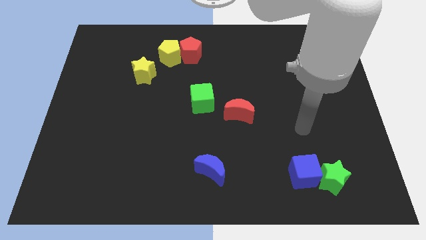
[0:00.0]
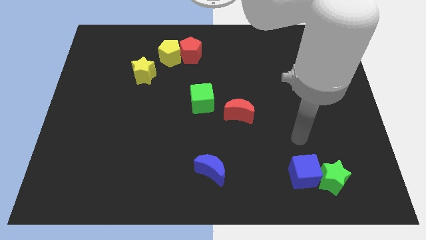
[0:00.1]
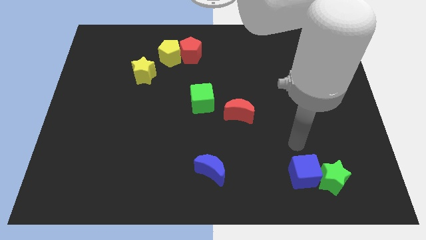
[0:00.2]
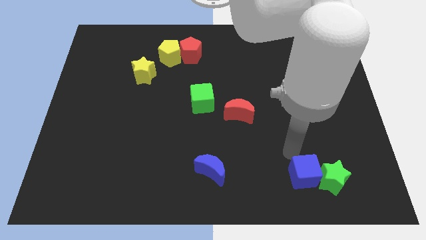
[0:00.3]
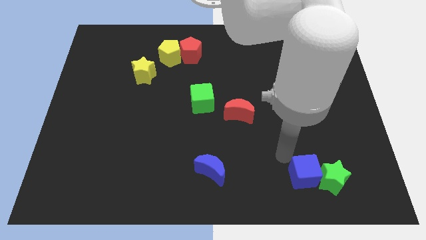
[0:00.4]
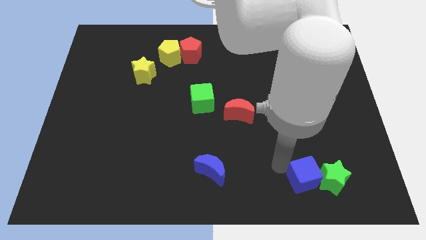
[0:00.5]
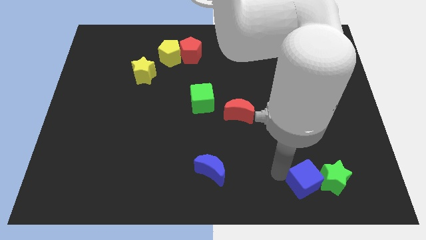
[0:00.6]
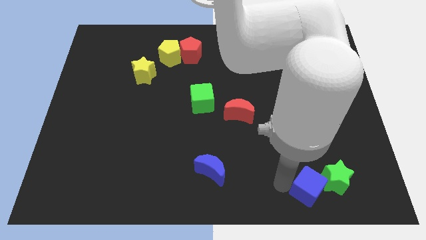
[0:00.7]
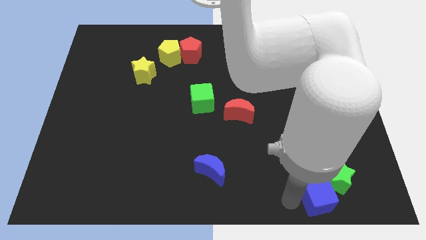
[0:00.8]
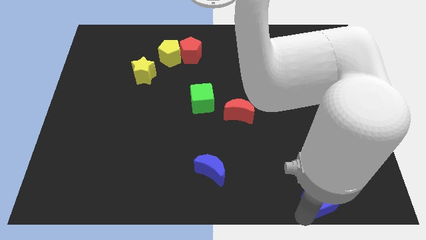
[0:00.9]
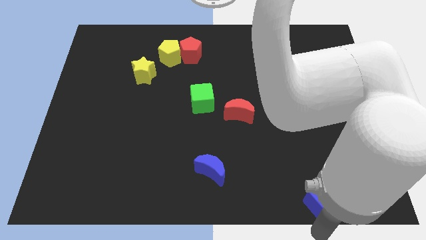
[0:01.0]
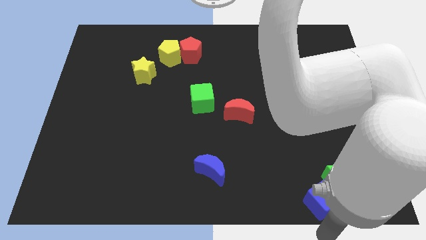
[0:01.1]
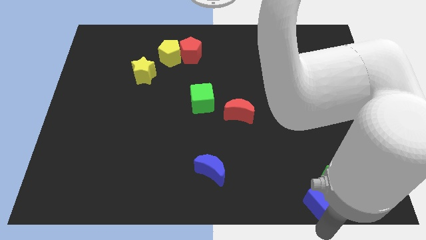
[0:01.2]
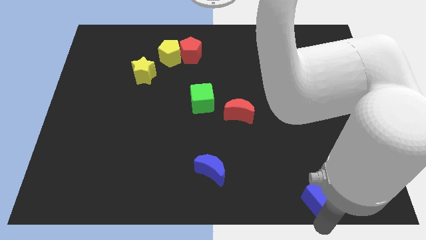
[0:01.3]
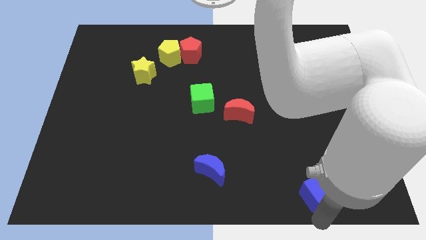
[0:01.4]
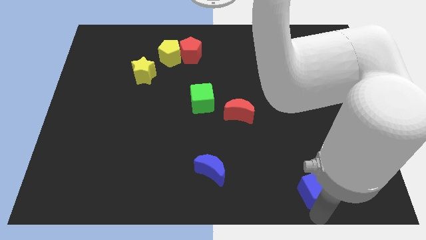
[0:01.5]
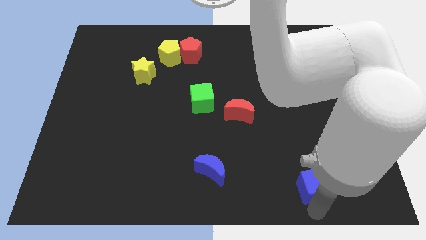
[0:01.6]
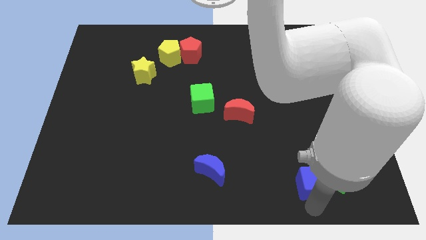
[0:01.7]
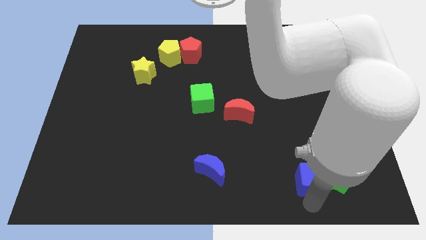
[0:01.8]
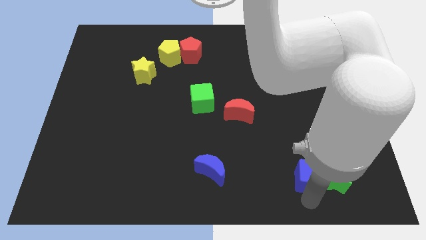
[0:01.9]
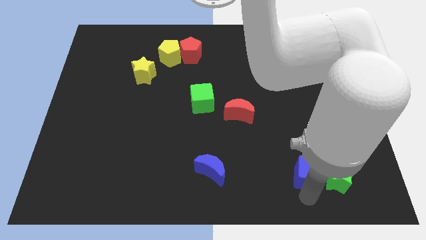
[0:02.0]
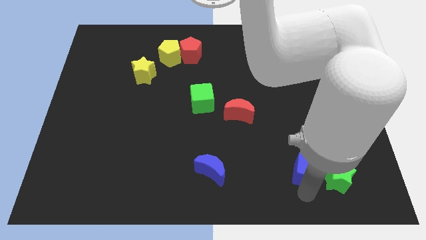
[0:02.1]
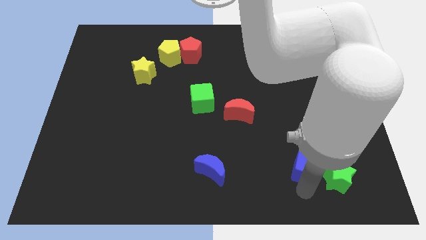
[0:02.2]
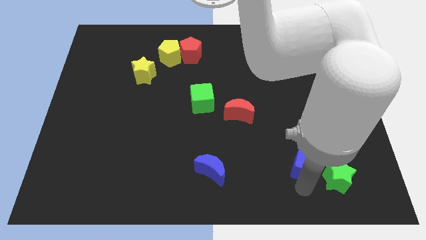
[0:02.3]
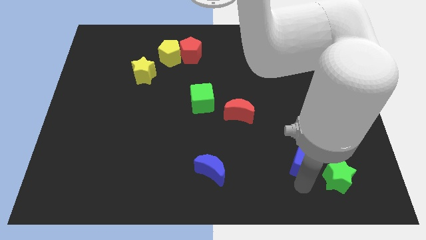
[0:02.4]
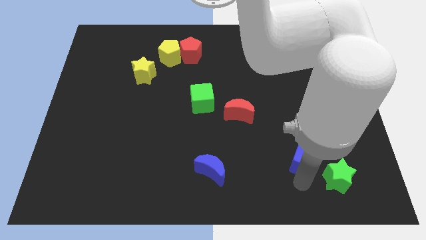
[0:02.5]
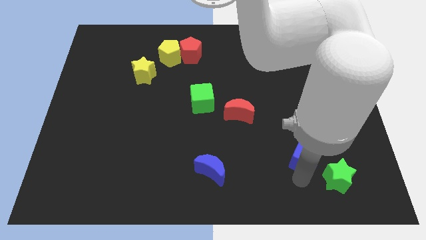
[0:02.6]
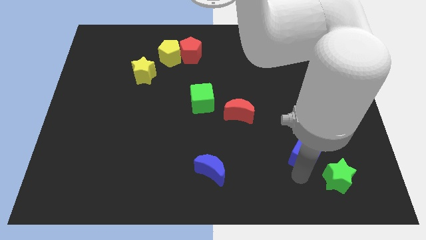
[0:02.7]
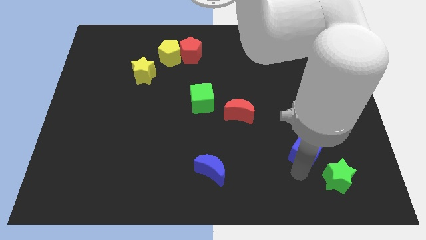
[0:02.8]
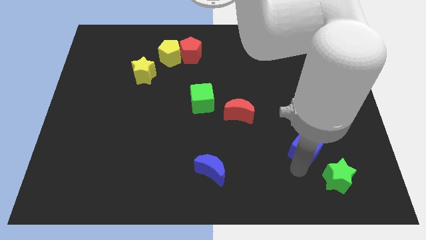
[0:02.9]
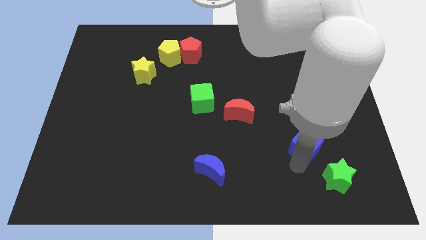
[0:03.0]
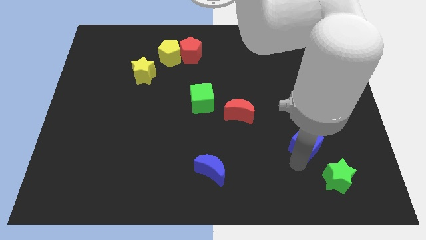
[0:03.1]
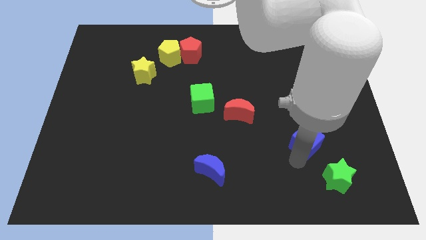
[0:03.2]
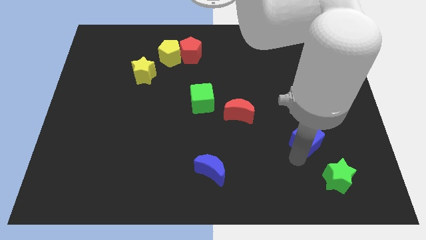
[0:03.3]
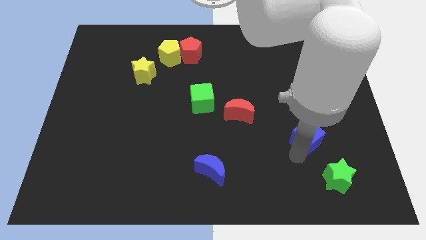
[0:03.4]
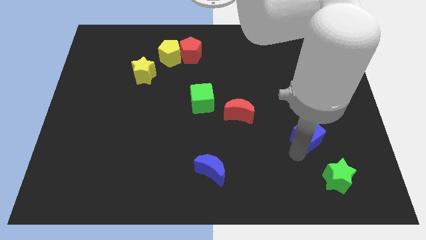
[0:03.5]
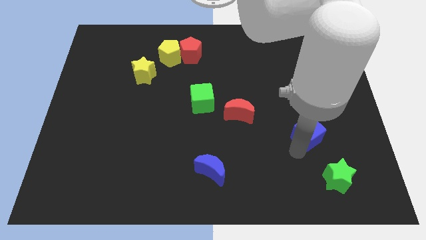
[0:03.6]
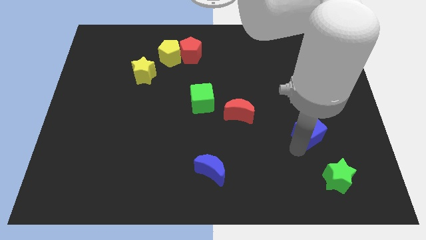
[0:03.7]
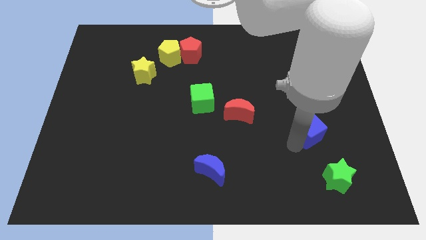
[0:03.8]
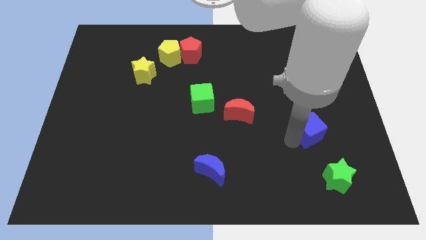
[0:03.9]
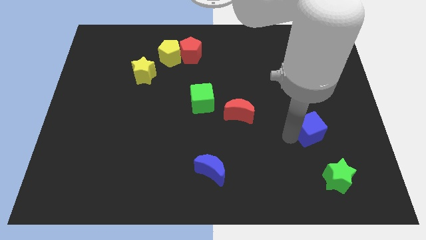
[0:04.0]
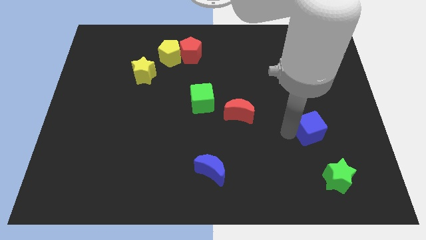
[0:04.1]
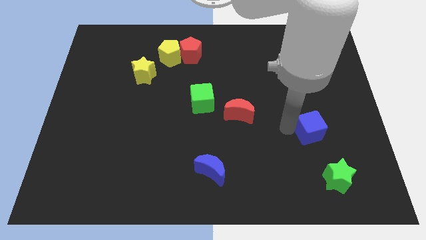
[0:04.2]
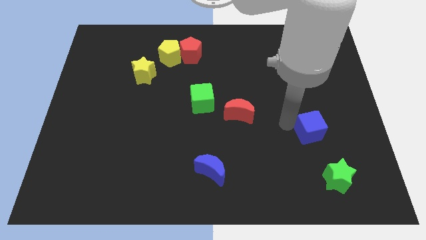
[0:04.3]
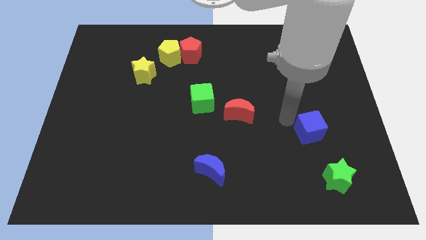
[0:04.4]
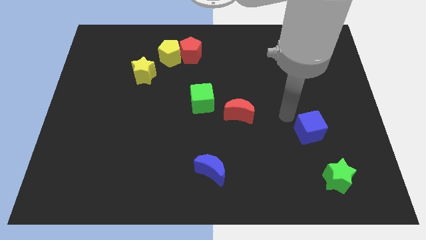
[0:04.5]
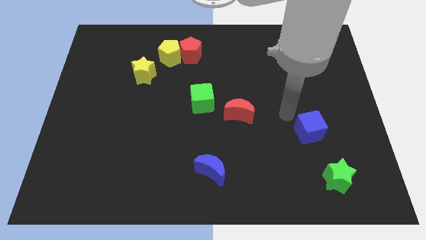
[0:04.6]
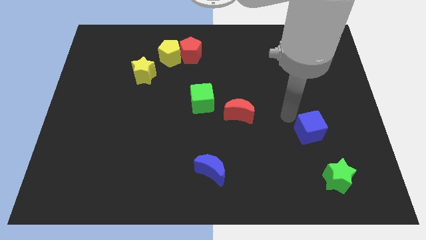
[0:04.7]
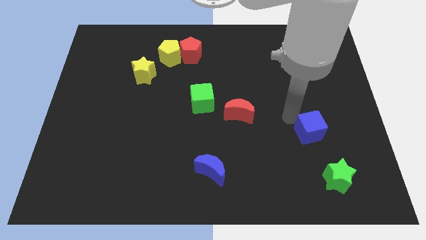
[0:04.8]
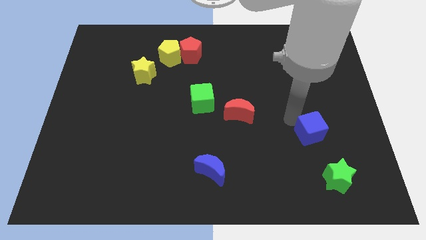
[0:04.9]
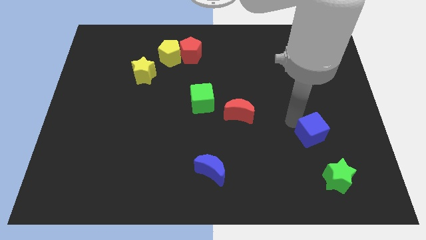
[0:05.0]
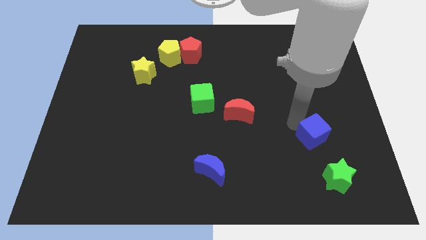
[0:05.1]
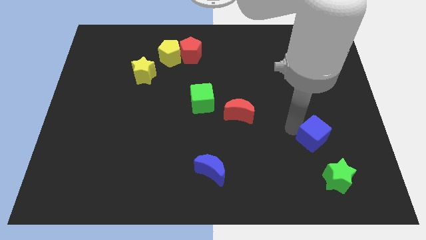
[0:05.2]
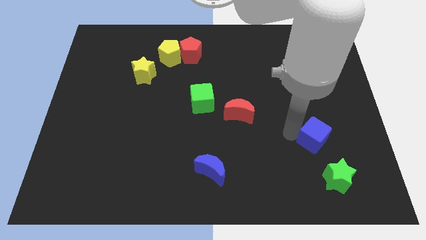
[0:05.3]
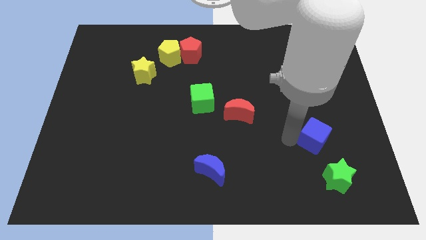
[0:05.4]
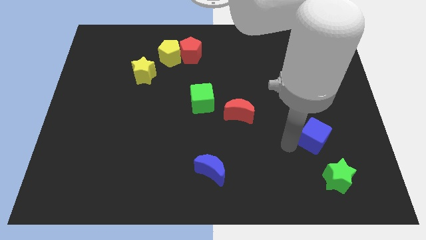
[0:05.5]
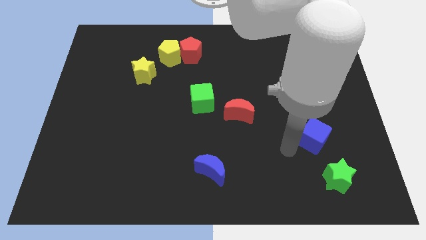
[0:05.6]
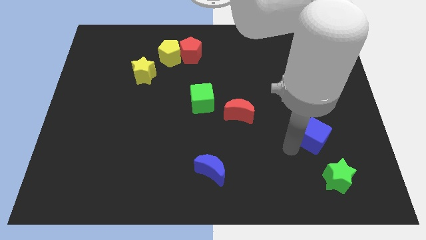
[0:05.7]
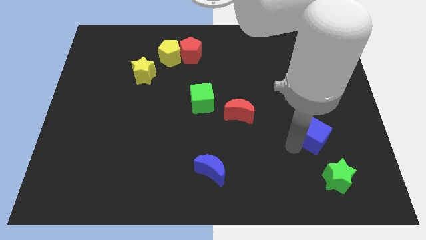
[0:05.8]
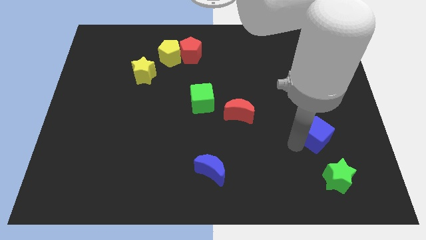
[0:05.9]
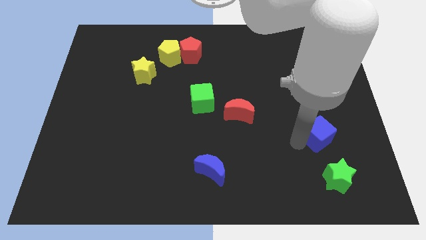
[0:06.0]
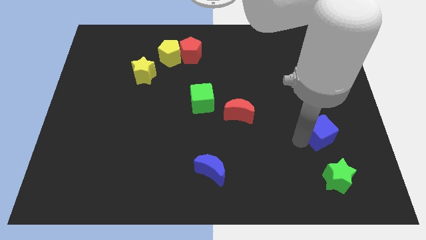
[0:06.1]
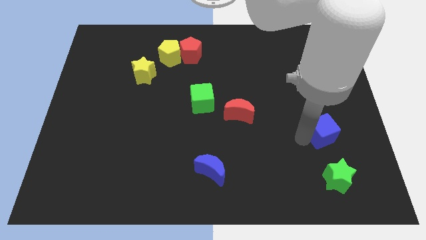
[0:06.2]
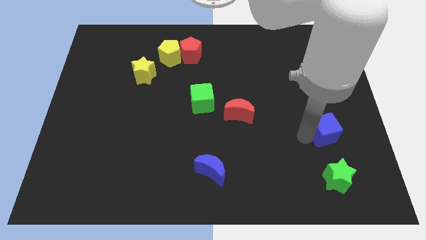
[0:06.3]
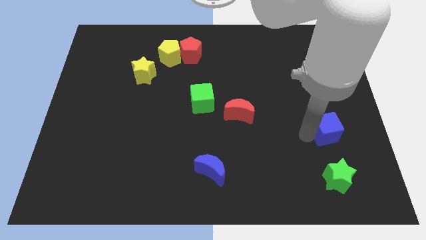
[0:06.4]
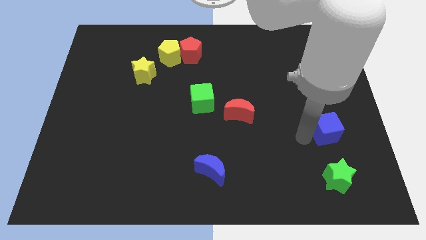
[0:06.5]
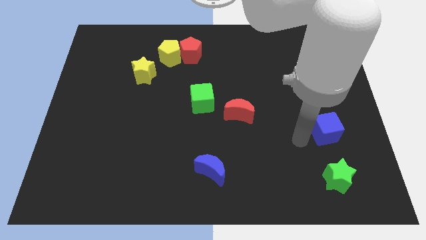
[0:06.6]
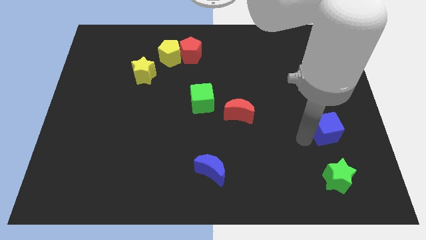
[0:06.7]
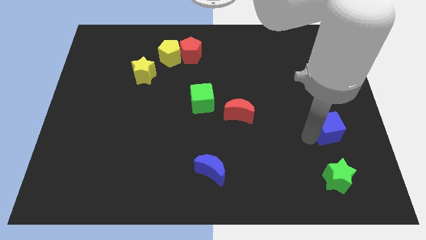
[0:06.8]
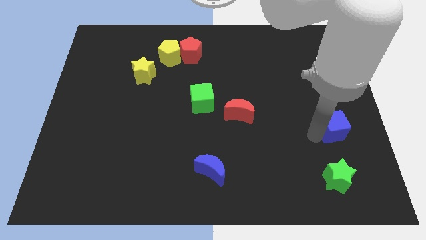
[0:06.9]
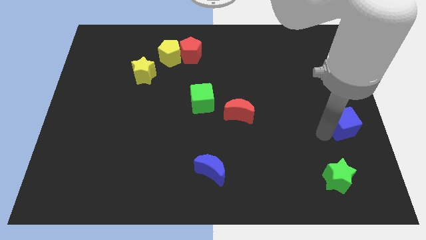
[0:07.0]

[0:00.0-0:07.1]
slide the blue cube to the center right
